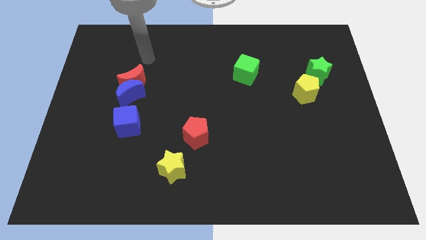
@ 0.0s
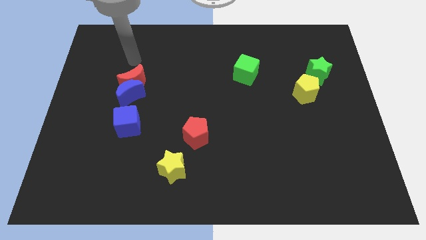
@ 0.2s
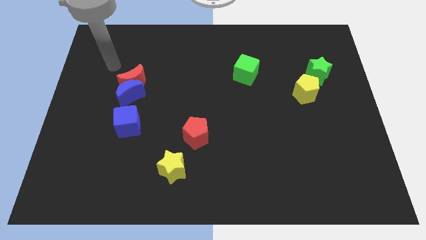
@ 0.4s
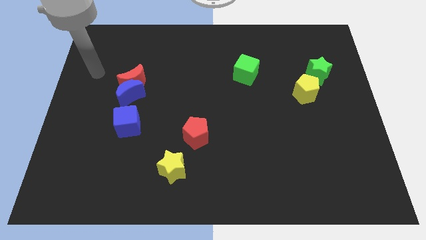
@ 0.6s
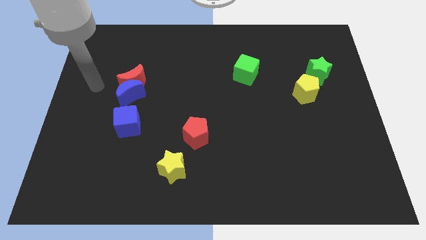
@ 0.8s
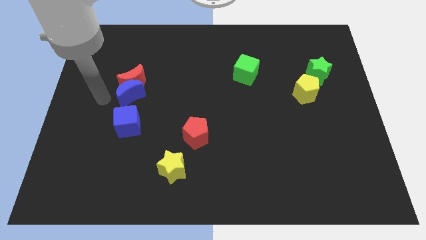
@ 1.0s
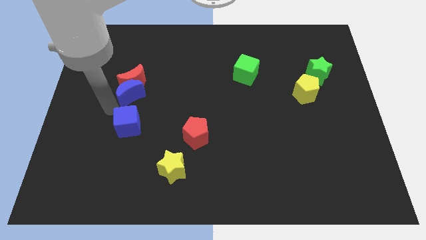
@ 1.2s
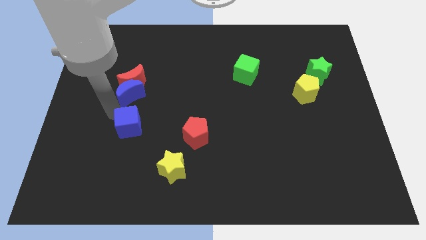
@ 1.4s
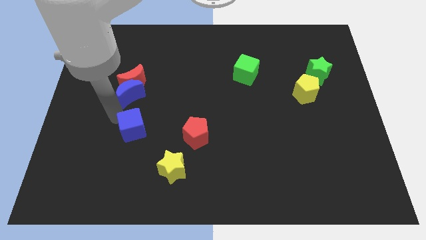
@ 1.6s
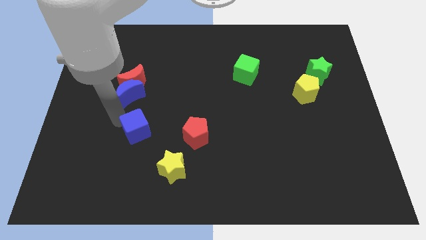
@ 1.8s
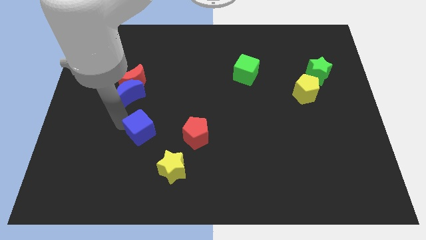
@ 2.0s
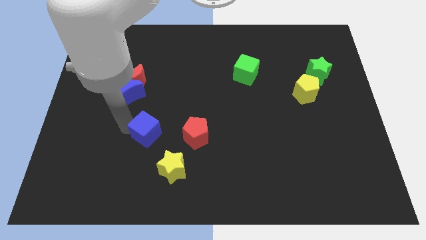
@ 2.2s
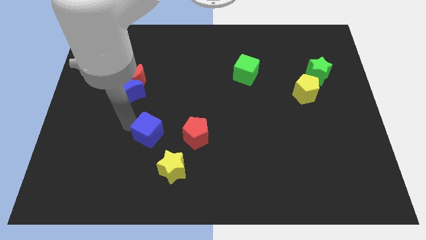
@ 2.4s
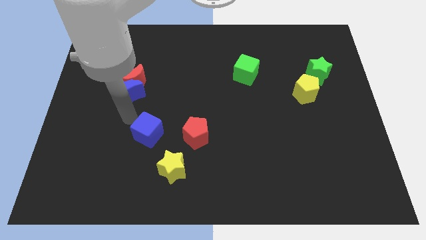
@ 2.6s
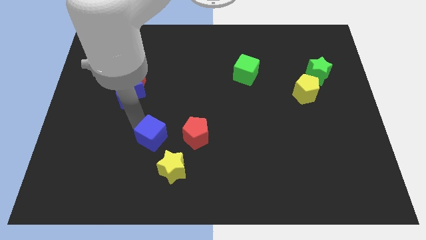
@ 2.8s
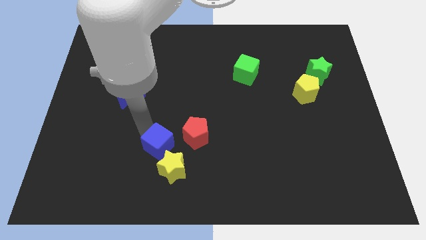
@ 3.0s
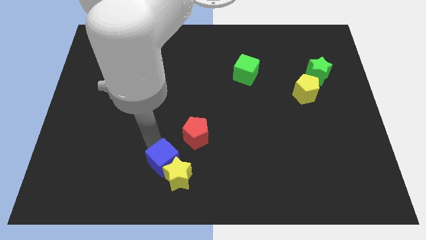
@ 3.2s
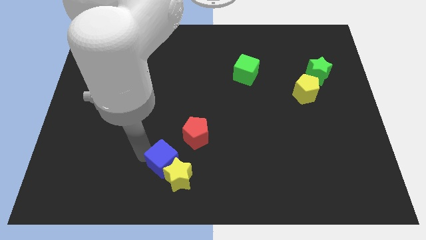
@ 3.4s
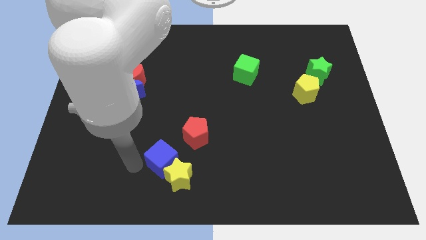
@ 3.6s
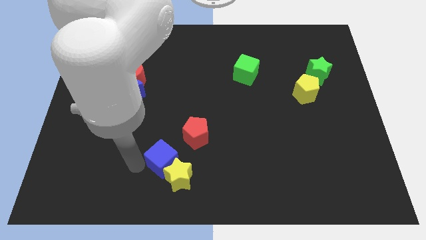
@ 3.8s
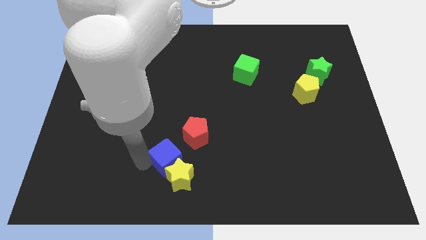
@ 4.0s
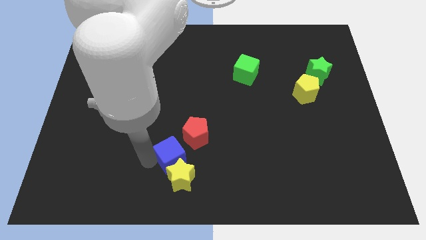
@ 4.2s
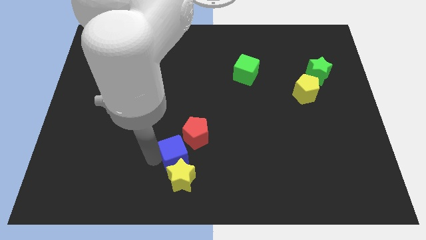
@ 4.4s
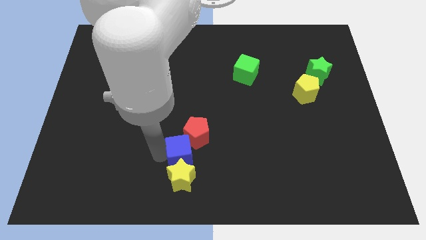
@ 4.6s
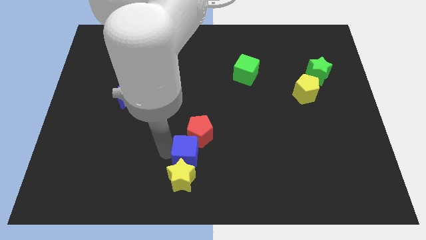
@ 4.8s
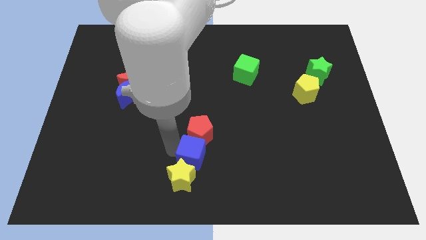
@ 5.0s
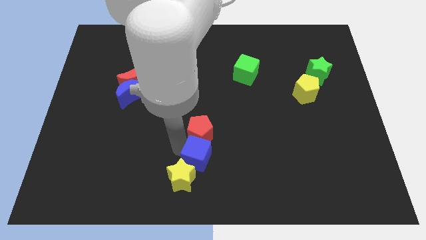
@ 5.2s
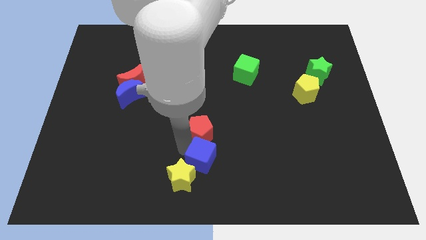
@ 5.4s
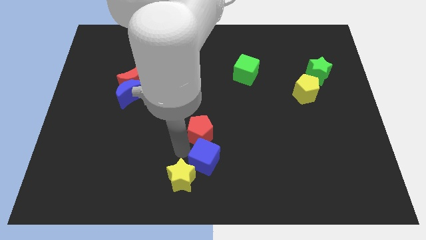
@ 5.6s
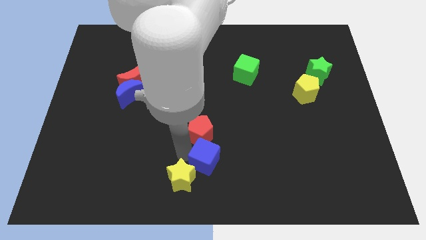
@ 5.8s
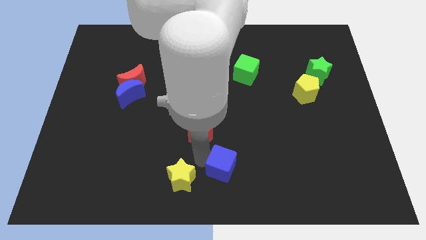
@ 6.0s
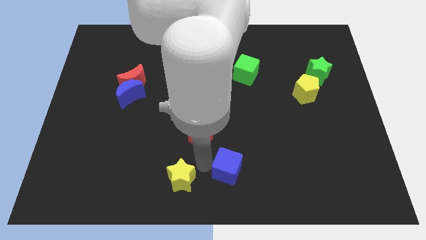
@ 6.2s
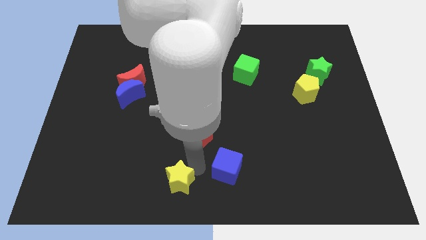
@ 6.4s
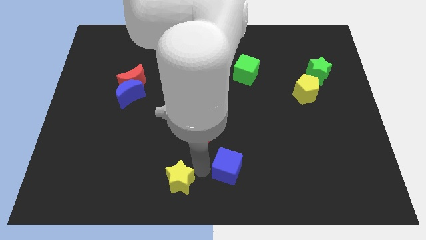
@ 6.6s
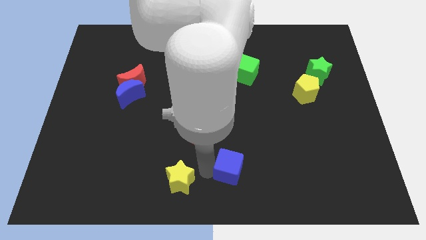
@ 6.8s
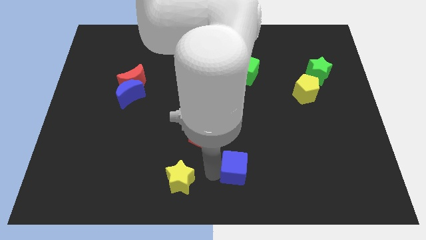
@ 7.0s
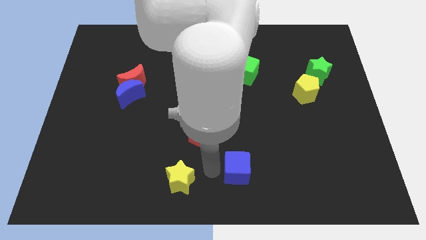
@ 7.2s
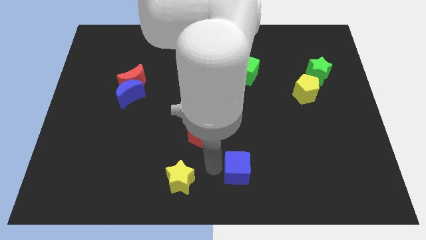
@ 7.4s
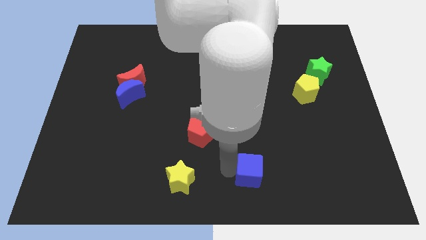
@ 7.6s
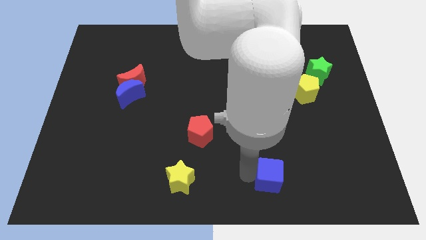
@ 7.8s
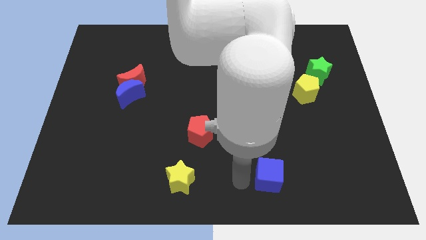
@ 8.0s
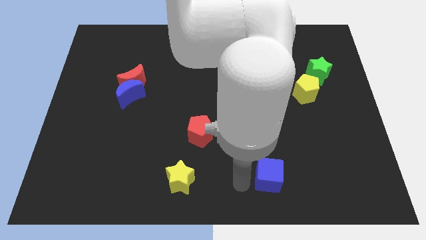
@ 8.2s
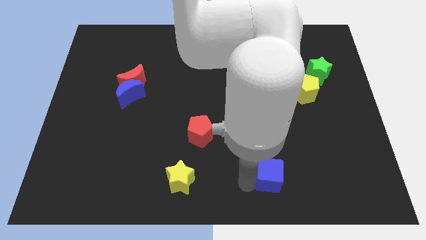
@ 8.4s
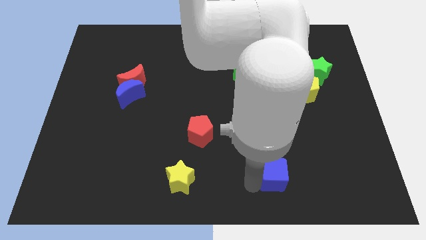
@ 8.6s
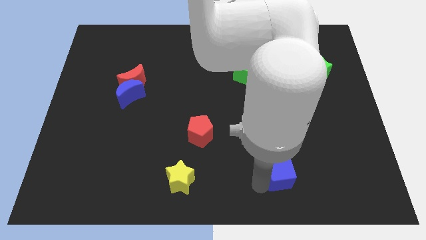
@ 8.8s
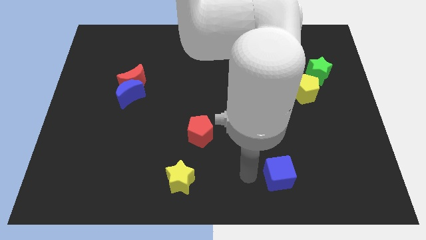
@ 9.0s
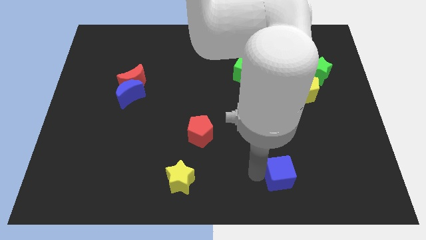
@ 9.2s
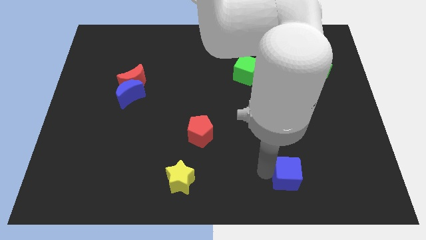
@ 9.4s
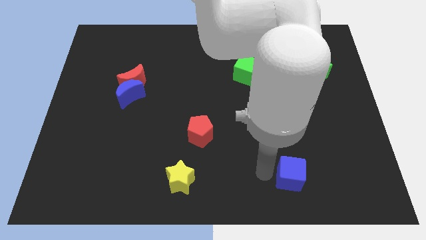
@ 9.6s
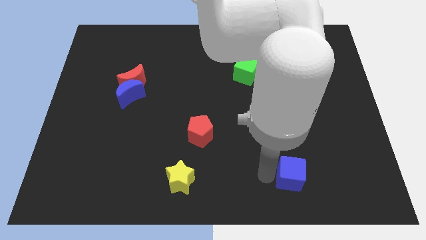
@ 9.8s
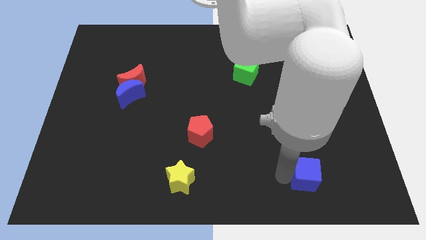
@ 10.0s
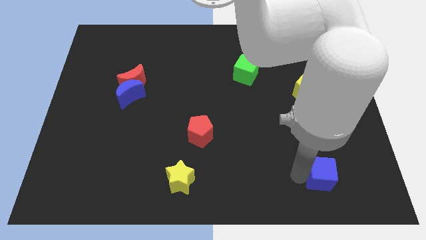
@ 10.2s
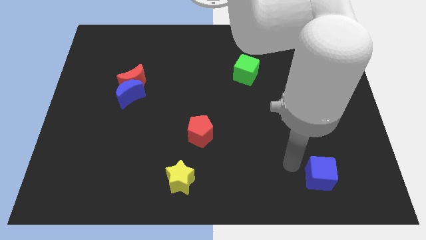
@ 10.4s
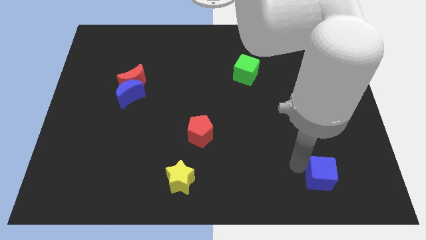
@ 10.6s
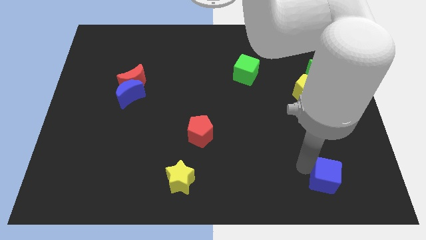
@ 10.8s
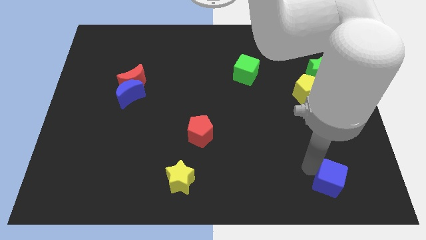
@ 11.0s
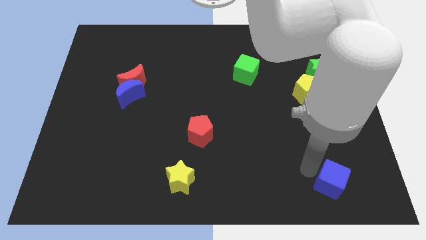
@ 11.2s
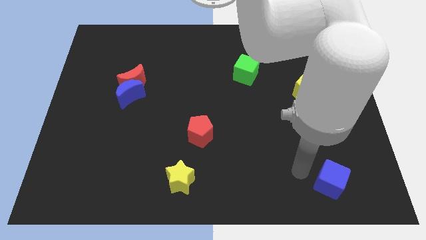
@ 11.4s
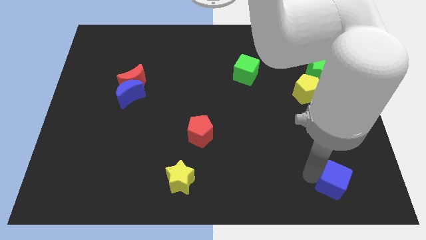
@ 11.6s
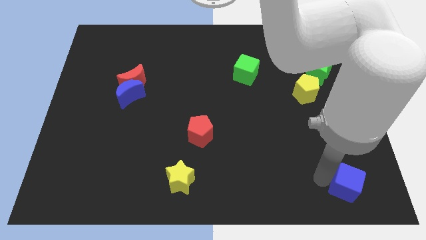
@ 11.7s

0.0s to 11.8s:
put the blue cube to the bottom right of the board
